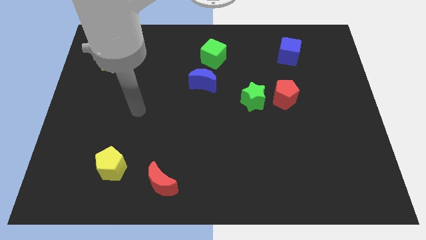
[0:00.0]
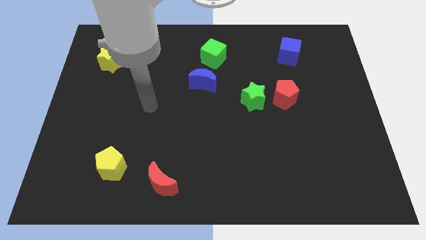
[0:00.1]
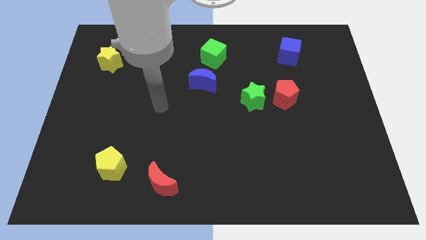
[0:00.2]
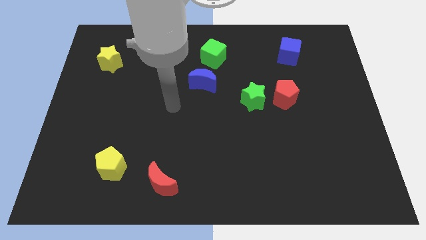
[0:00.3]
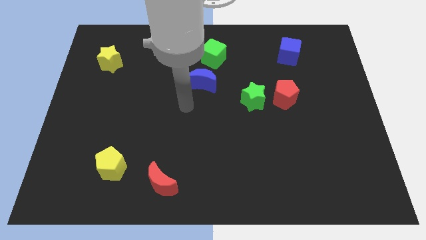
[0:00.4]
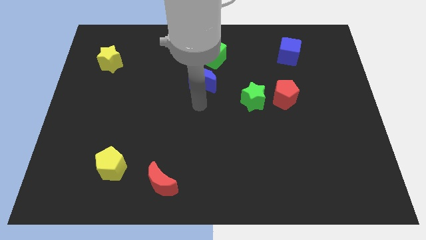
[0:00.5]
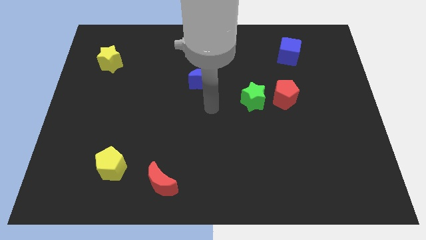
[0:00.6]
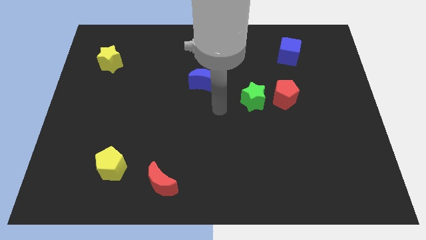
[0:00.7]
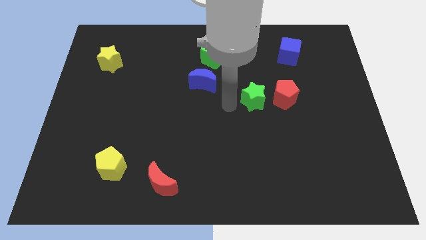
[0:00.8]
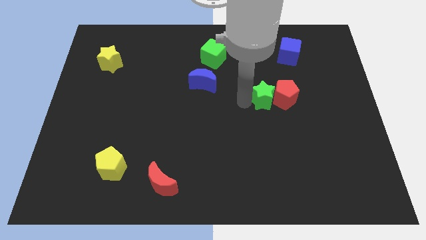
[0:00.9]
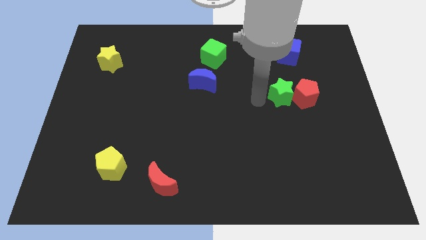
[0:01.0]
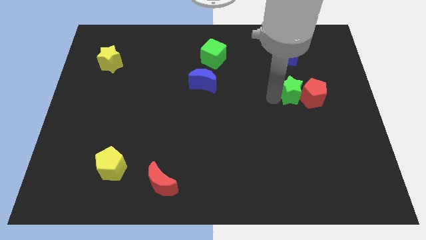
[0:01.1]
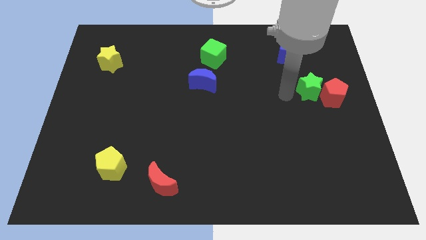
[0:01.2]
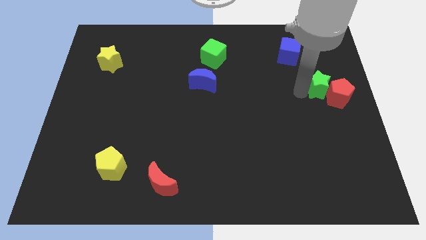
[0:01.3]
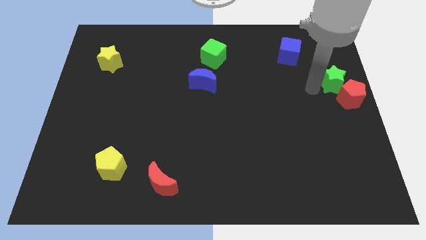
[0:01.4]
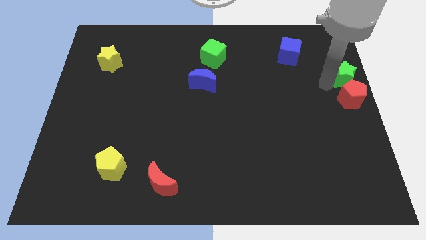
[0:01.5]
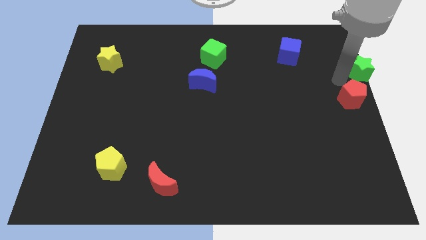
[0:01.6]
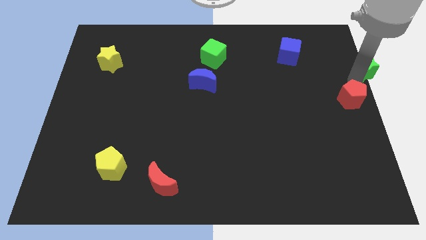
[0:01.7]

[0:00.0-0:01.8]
move the red pentagon away from the green star

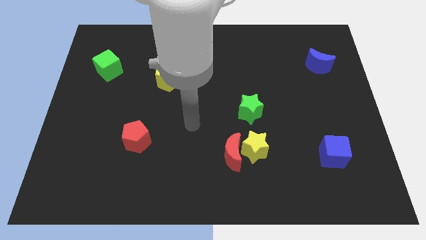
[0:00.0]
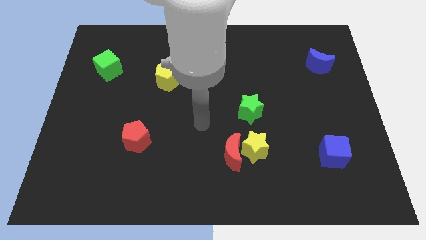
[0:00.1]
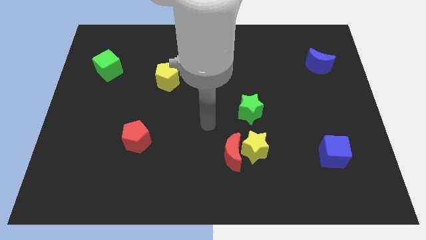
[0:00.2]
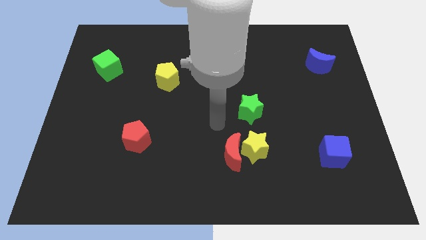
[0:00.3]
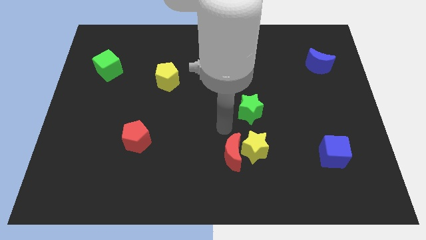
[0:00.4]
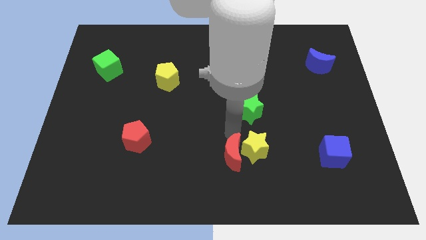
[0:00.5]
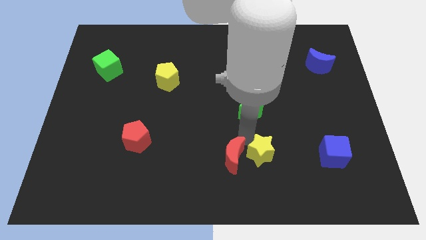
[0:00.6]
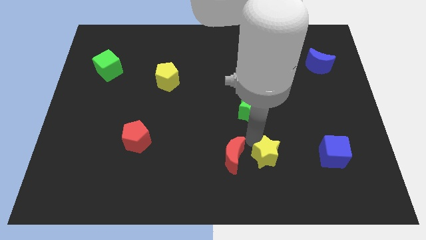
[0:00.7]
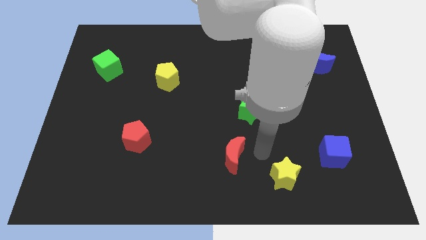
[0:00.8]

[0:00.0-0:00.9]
pull the red moon apart from the yellow star

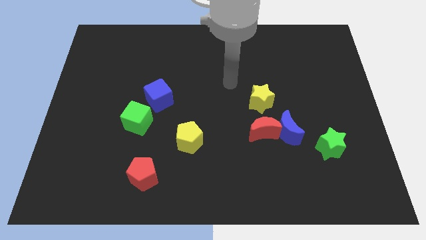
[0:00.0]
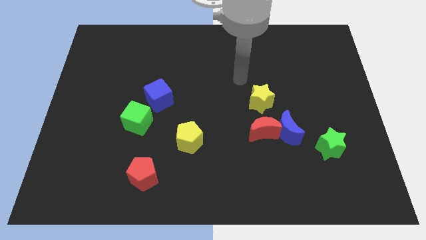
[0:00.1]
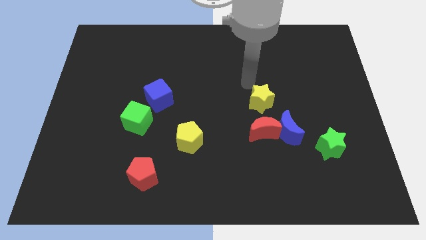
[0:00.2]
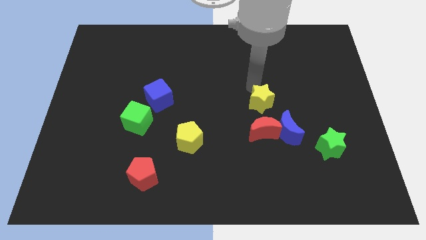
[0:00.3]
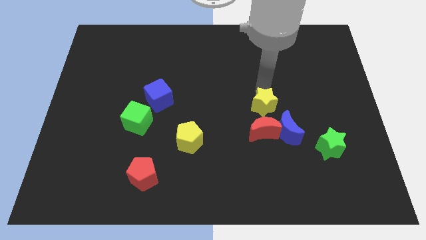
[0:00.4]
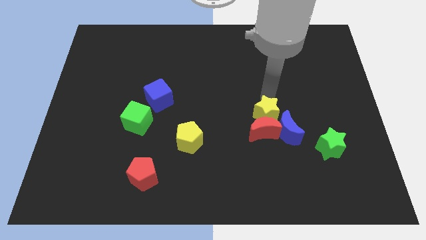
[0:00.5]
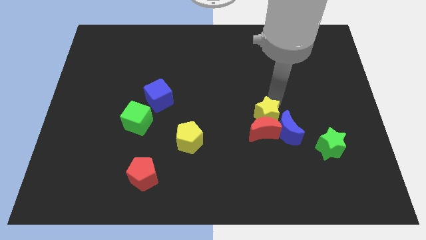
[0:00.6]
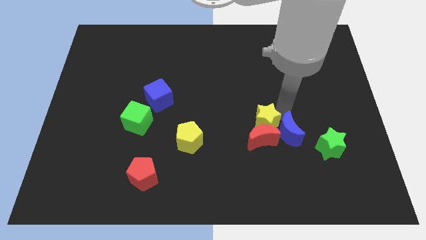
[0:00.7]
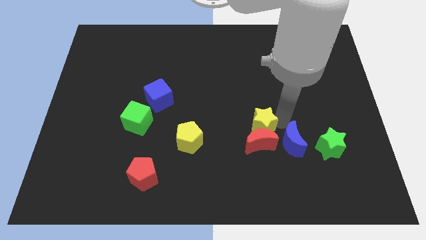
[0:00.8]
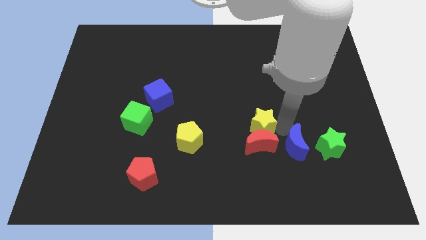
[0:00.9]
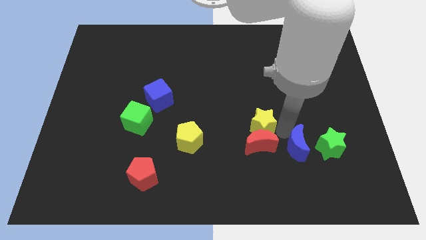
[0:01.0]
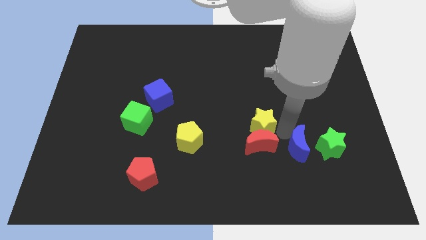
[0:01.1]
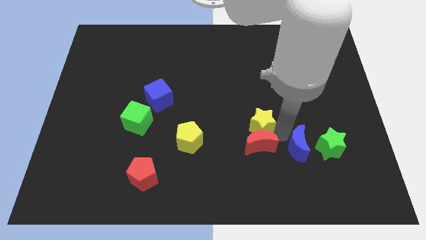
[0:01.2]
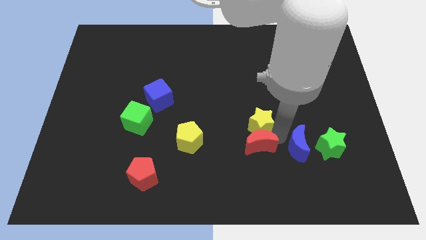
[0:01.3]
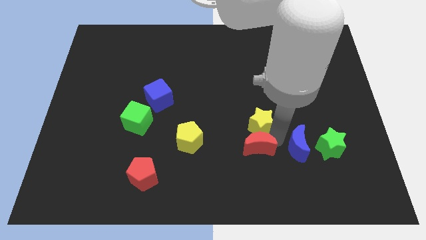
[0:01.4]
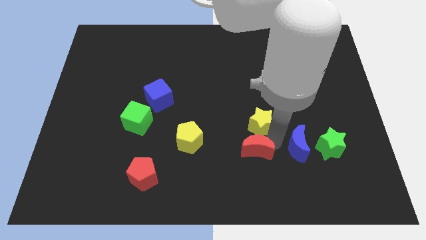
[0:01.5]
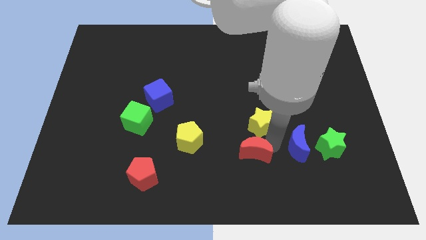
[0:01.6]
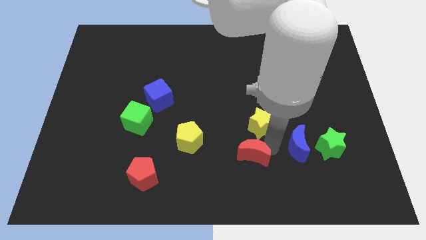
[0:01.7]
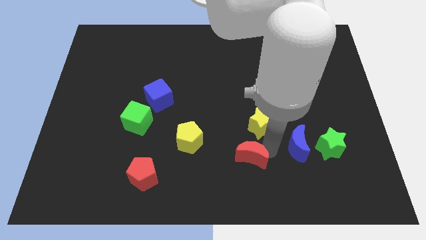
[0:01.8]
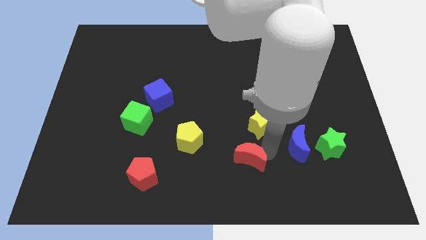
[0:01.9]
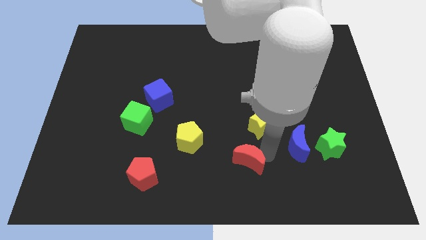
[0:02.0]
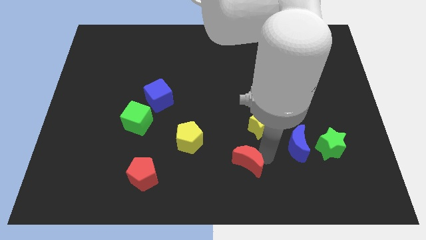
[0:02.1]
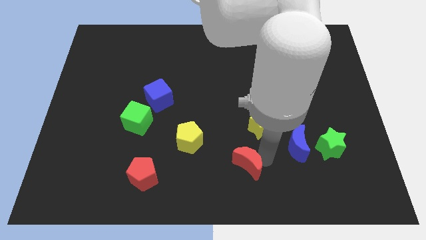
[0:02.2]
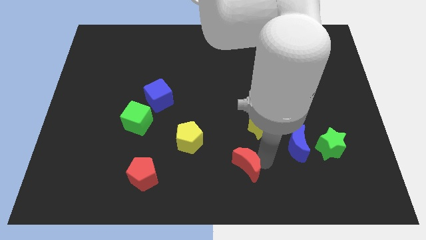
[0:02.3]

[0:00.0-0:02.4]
separate the red moon from the blue moon and yellow star

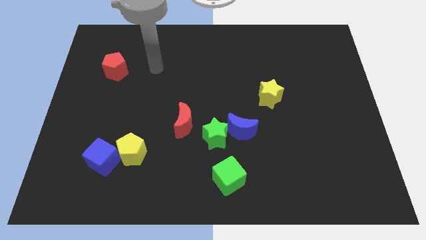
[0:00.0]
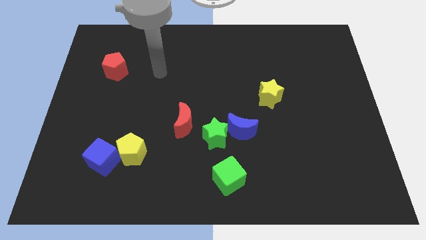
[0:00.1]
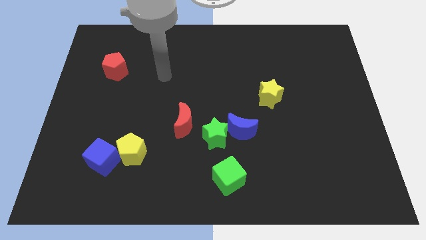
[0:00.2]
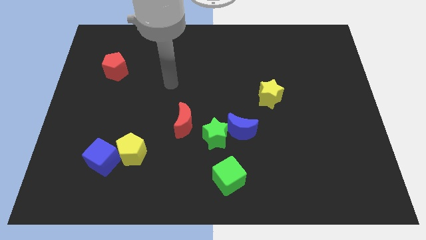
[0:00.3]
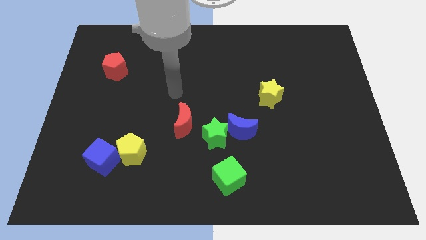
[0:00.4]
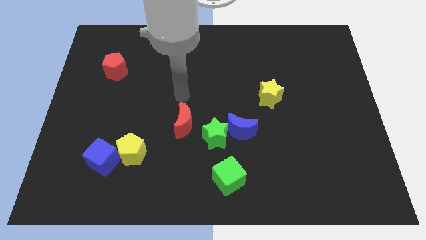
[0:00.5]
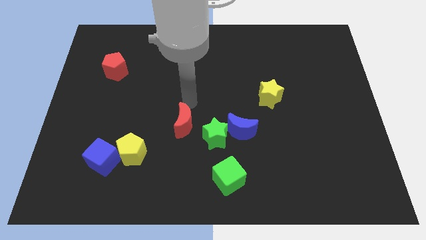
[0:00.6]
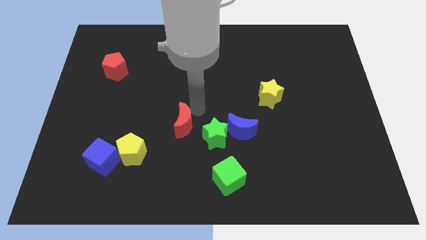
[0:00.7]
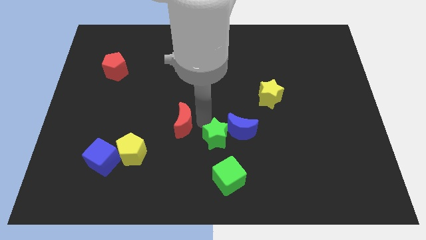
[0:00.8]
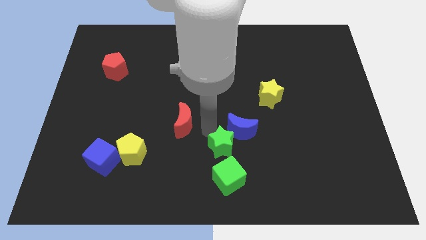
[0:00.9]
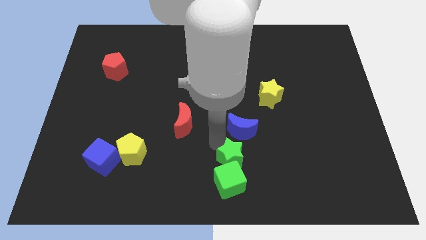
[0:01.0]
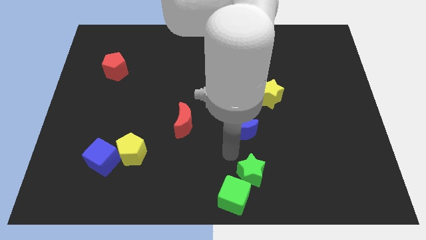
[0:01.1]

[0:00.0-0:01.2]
pull the blue moon apart from the green star

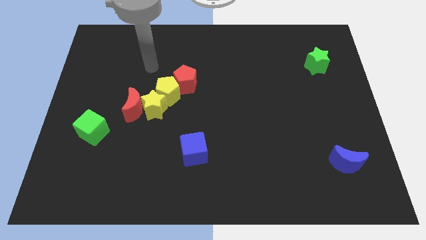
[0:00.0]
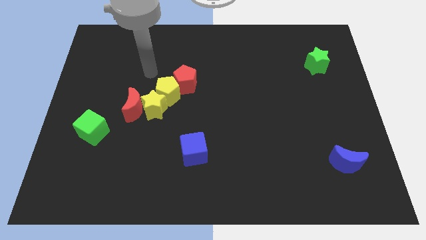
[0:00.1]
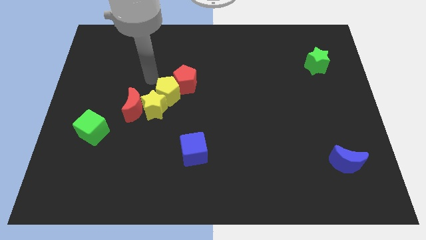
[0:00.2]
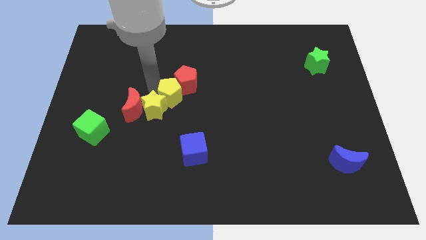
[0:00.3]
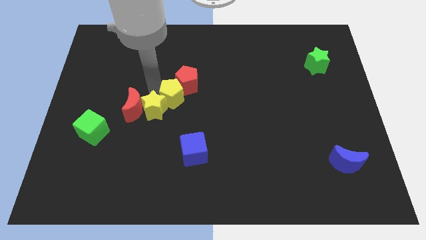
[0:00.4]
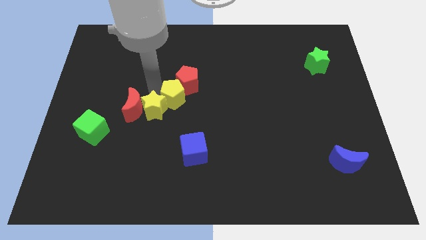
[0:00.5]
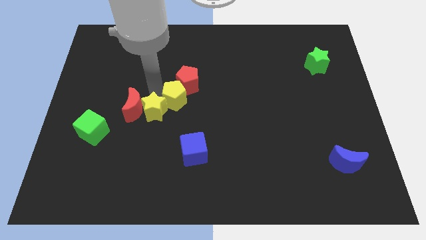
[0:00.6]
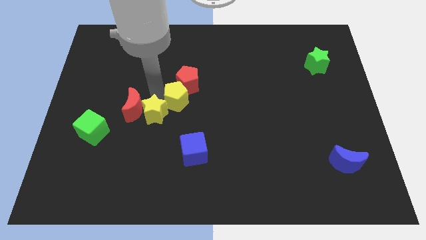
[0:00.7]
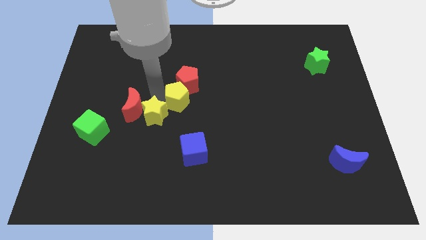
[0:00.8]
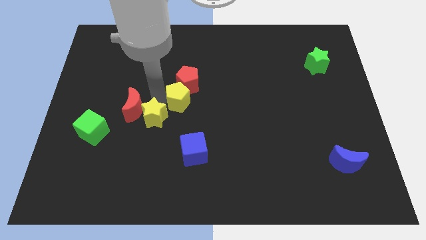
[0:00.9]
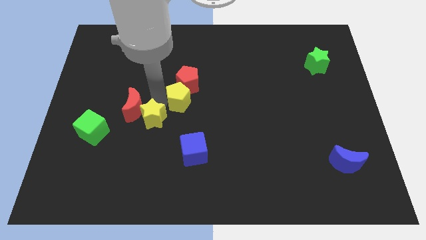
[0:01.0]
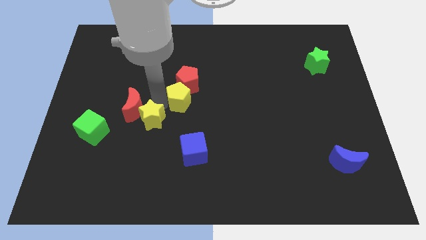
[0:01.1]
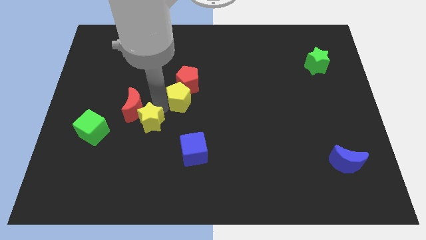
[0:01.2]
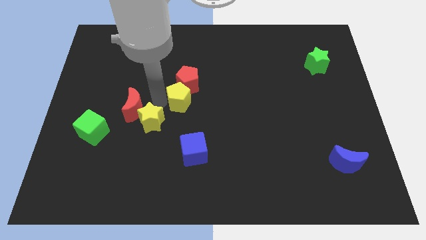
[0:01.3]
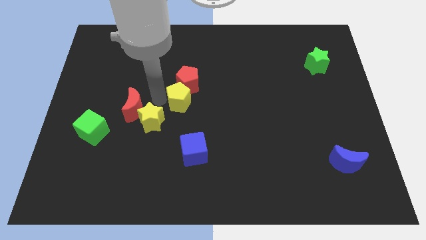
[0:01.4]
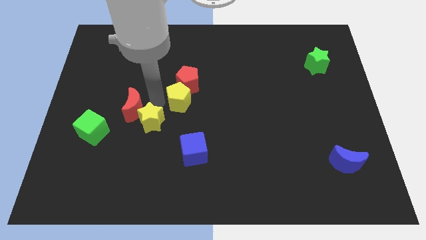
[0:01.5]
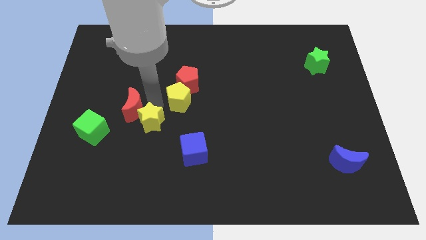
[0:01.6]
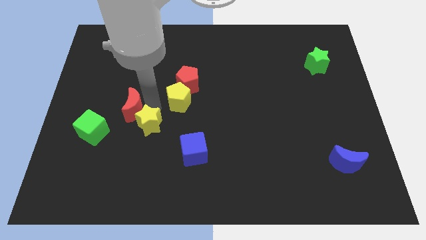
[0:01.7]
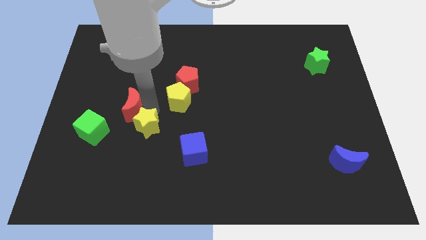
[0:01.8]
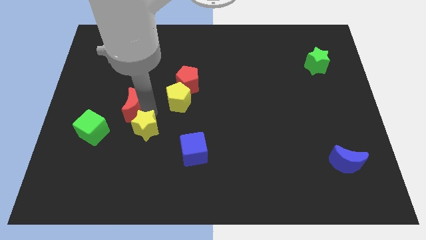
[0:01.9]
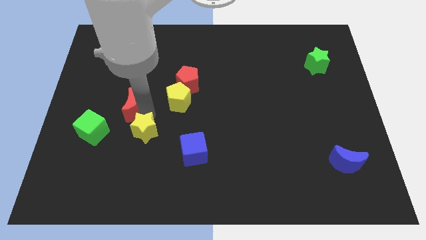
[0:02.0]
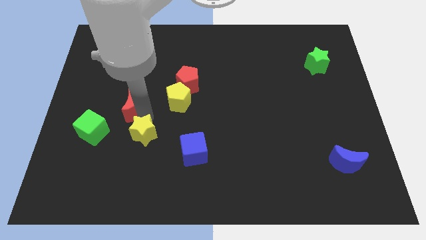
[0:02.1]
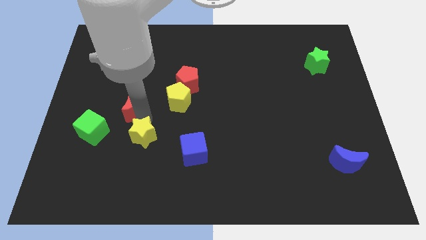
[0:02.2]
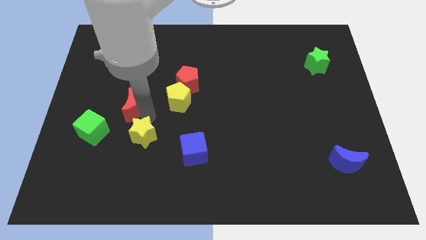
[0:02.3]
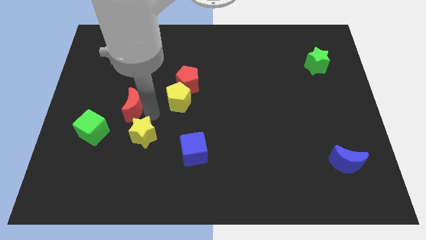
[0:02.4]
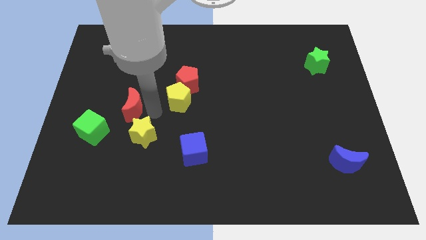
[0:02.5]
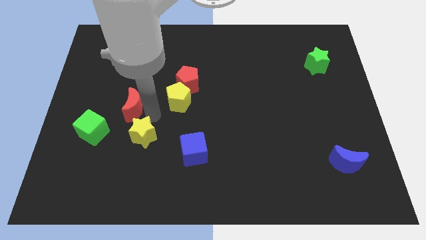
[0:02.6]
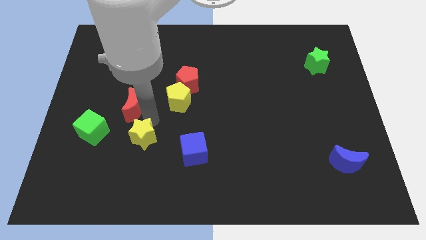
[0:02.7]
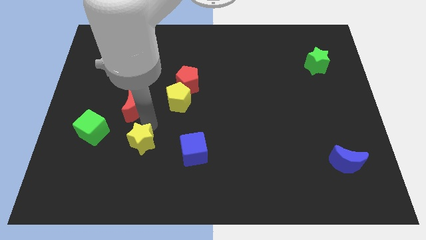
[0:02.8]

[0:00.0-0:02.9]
pull the yellow star apart from the red moon and yellow pentagon
